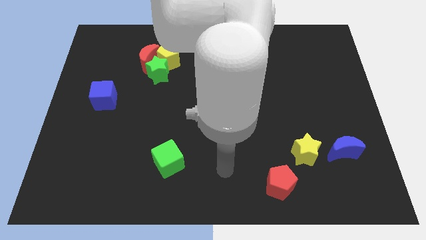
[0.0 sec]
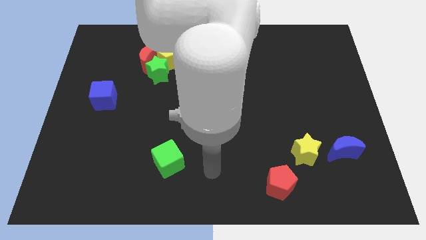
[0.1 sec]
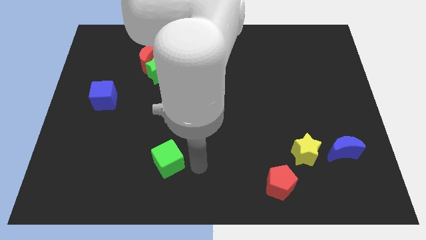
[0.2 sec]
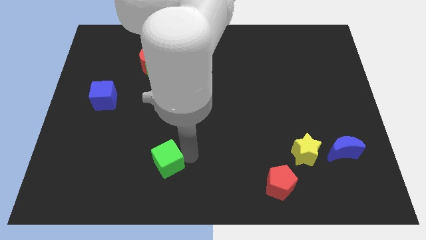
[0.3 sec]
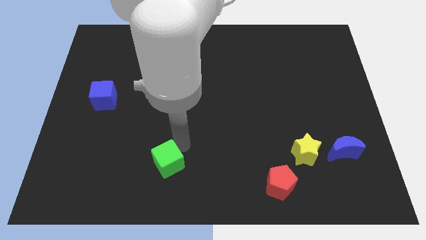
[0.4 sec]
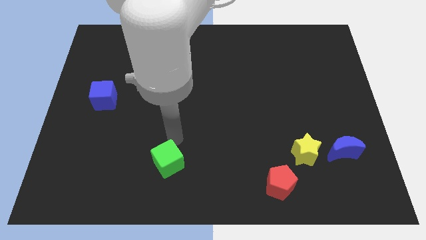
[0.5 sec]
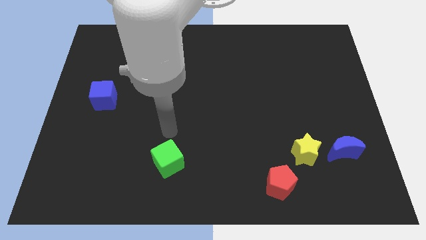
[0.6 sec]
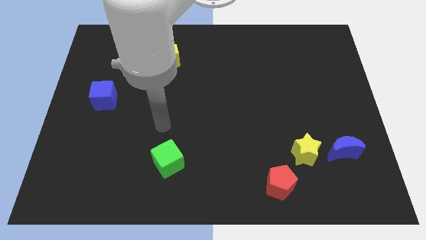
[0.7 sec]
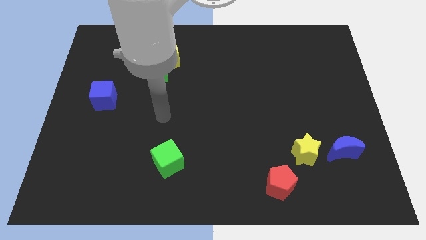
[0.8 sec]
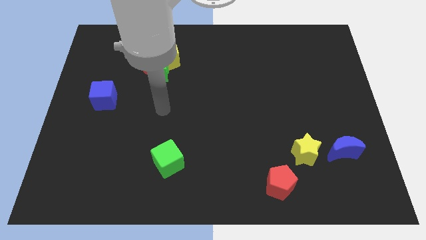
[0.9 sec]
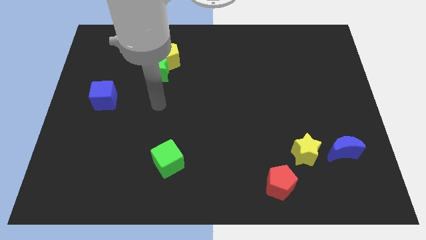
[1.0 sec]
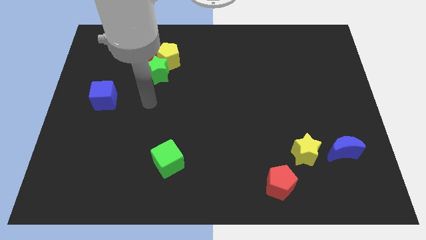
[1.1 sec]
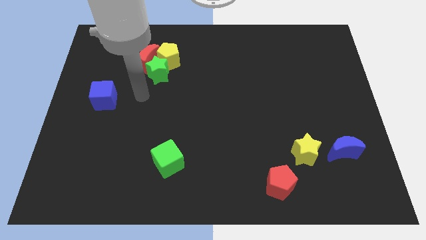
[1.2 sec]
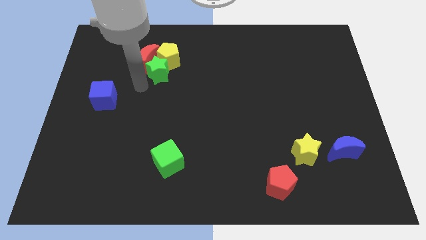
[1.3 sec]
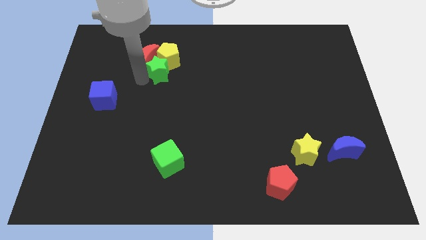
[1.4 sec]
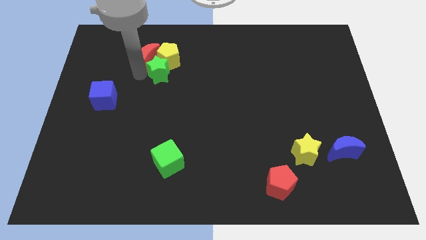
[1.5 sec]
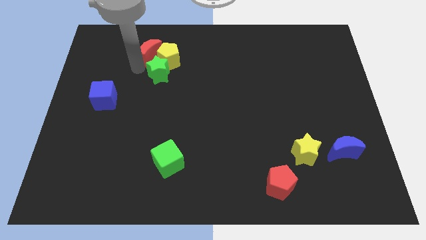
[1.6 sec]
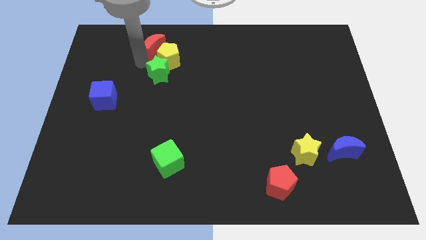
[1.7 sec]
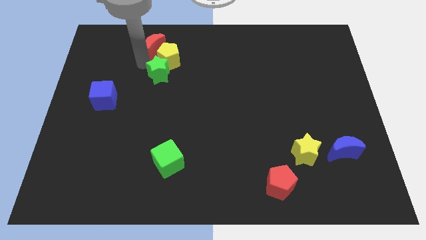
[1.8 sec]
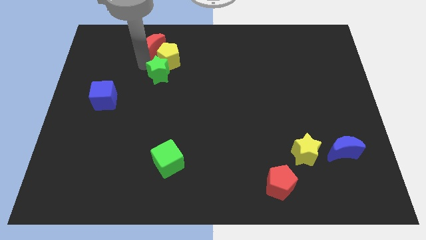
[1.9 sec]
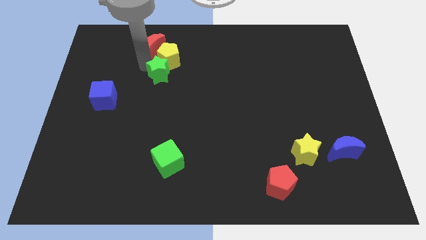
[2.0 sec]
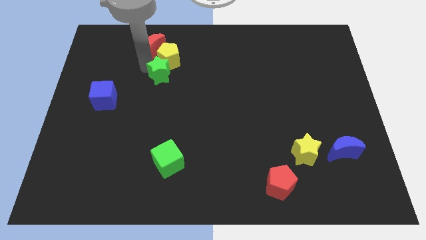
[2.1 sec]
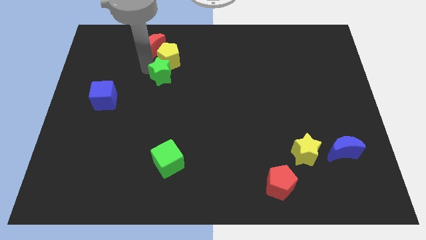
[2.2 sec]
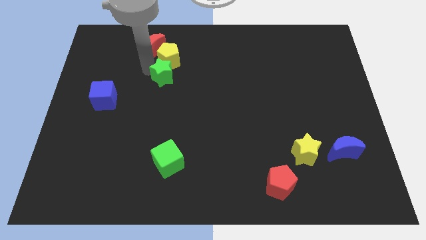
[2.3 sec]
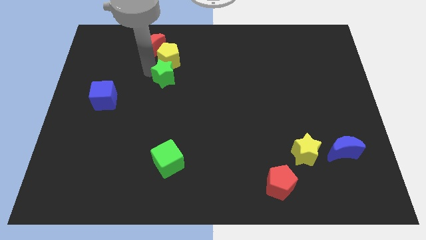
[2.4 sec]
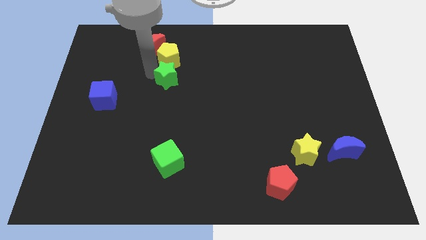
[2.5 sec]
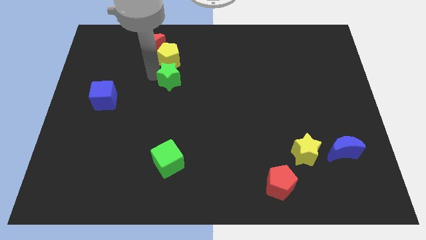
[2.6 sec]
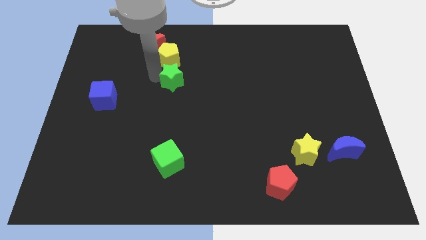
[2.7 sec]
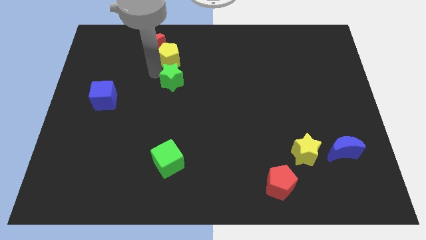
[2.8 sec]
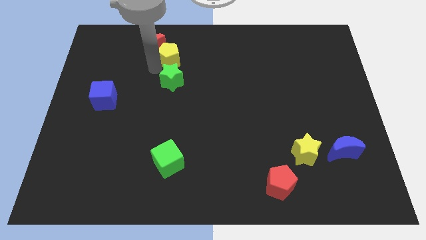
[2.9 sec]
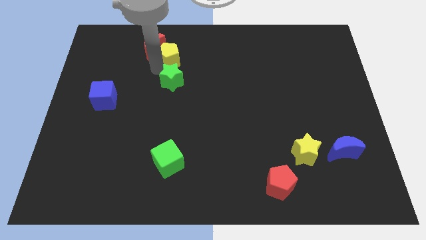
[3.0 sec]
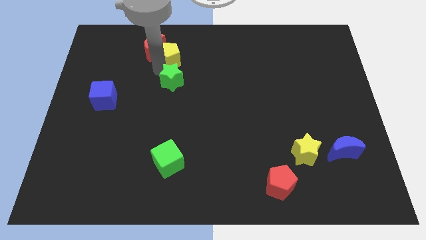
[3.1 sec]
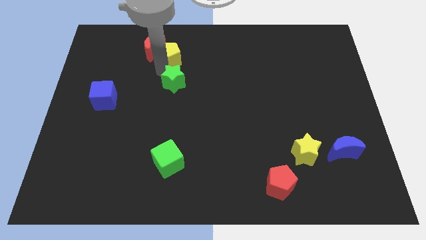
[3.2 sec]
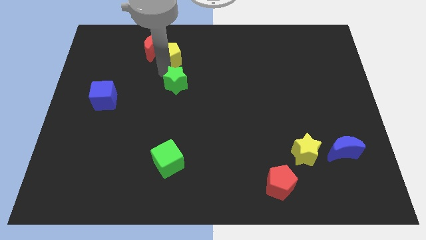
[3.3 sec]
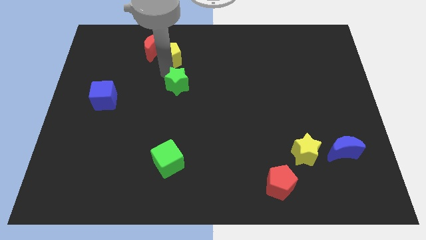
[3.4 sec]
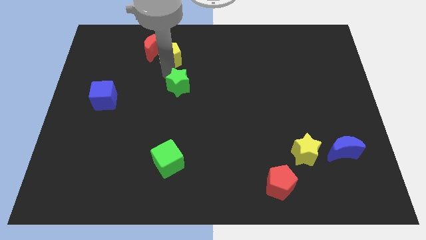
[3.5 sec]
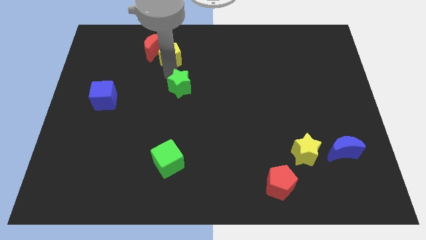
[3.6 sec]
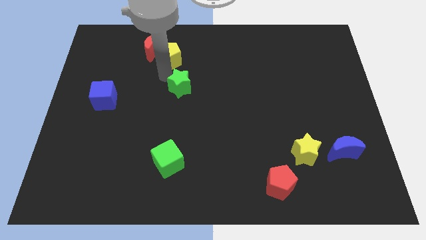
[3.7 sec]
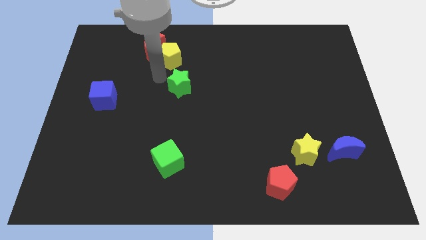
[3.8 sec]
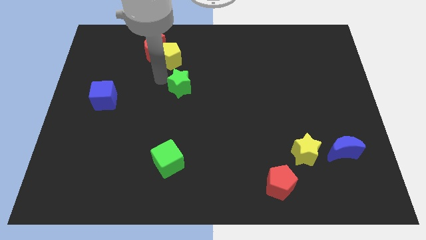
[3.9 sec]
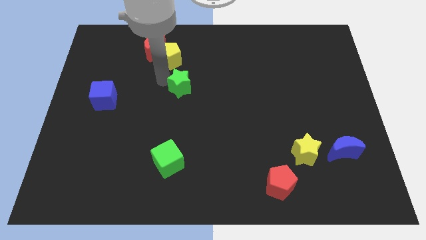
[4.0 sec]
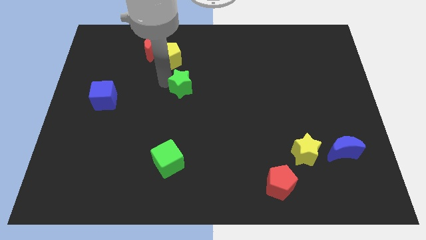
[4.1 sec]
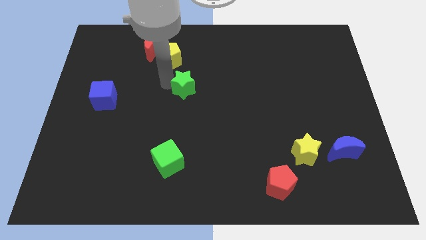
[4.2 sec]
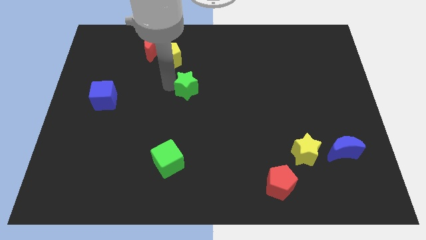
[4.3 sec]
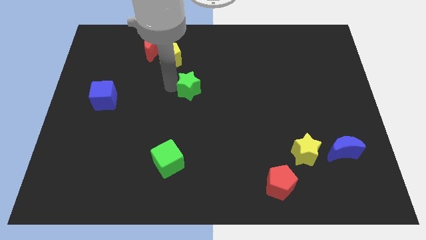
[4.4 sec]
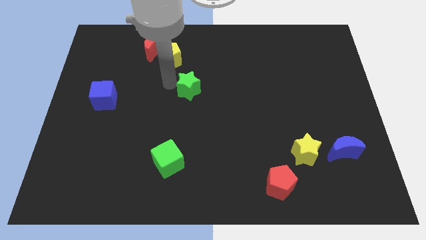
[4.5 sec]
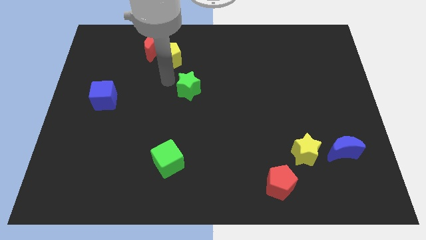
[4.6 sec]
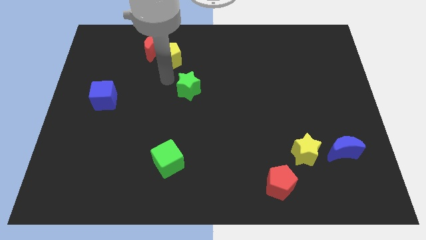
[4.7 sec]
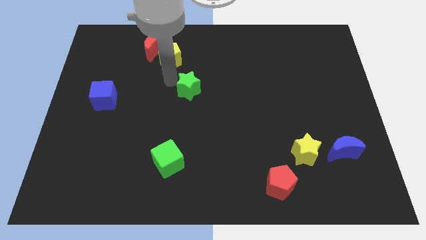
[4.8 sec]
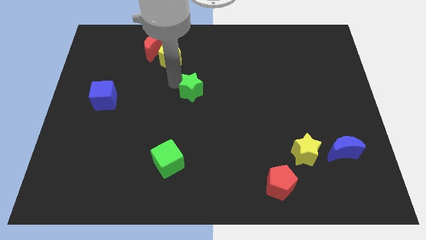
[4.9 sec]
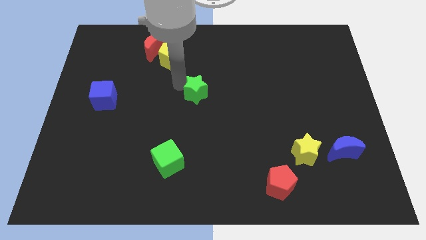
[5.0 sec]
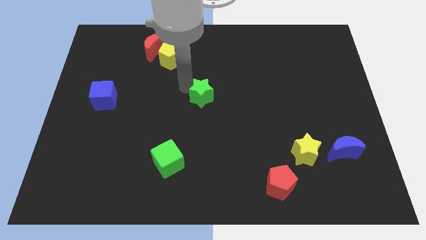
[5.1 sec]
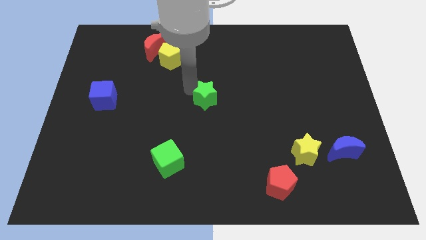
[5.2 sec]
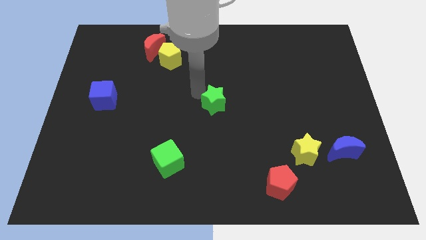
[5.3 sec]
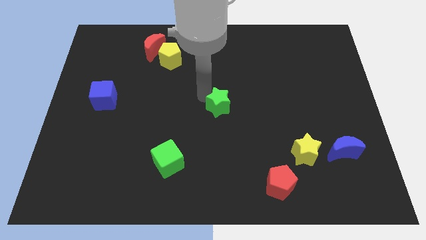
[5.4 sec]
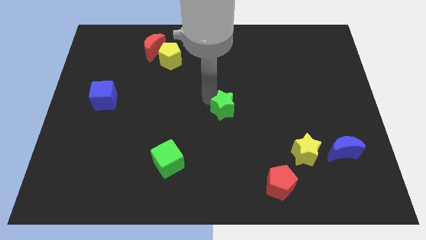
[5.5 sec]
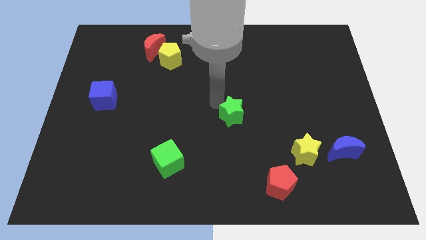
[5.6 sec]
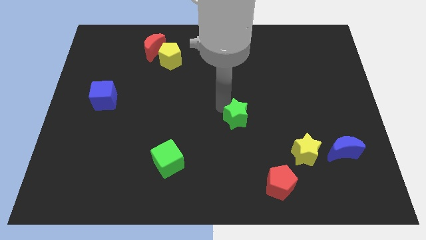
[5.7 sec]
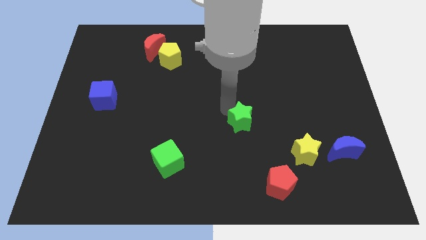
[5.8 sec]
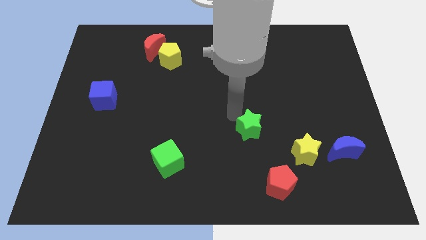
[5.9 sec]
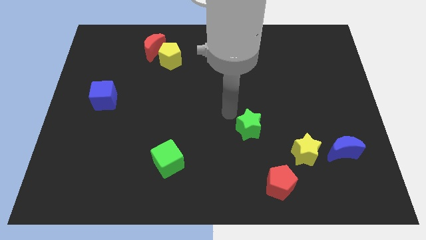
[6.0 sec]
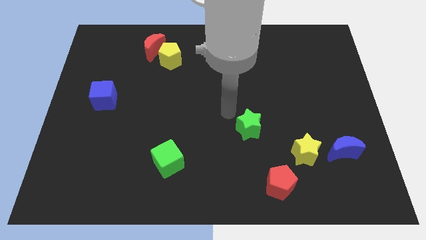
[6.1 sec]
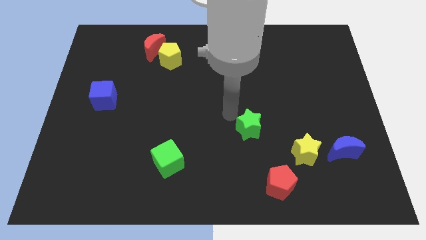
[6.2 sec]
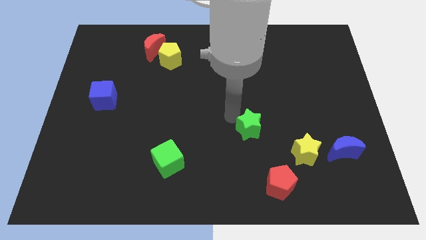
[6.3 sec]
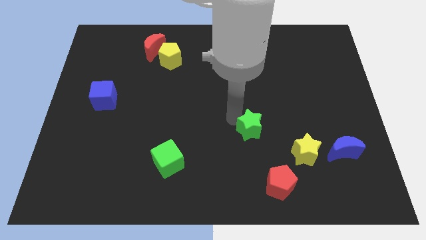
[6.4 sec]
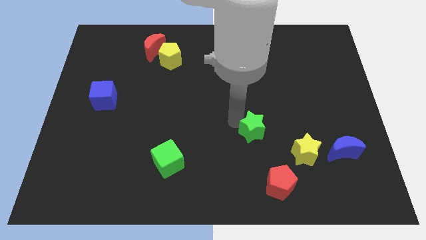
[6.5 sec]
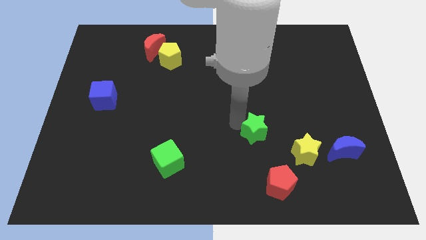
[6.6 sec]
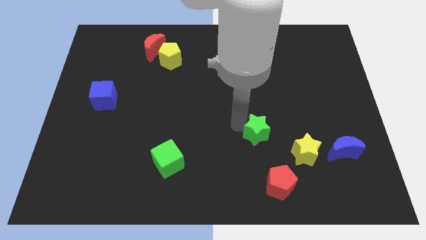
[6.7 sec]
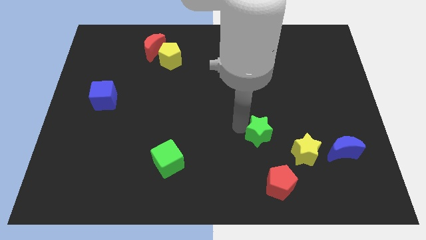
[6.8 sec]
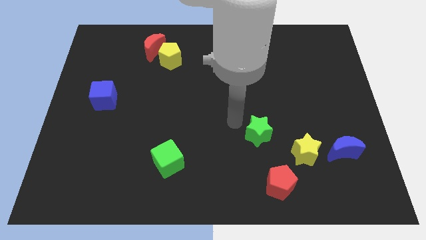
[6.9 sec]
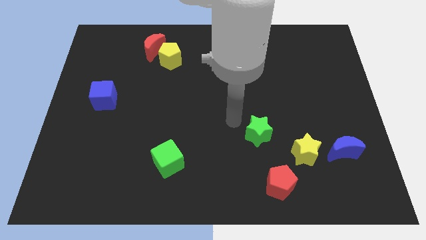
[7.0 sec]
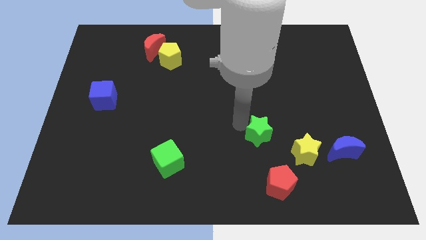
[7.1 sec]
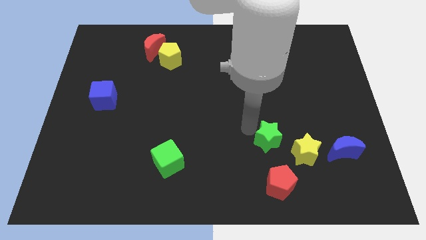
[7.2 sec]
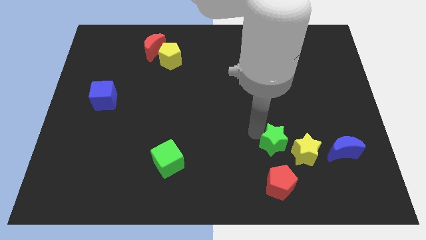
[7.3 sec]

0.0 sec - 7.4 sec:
slide the green star to the left side of the blue moon
